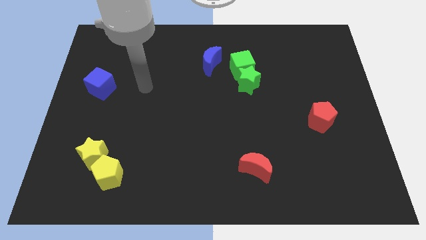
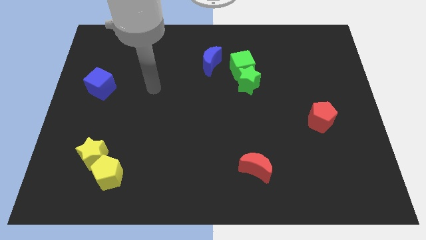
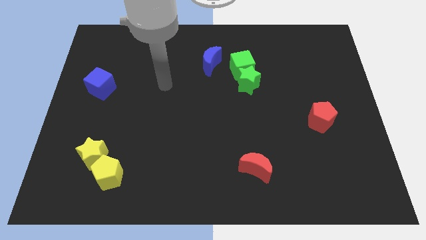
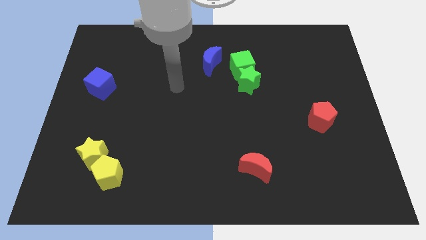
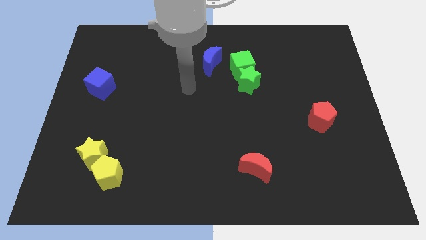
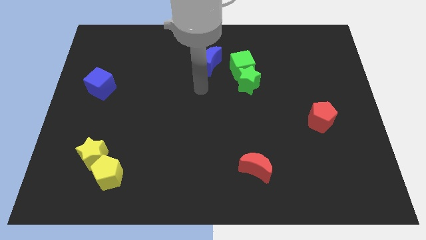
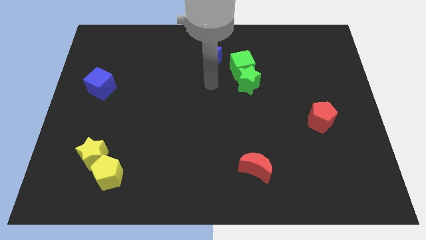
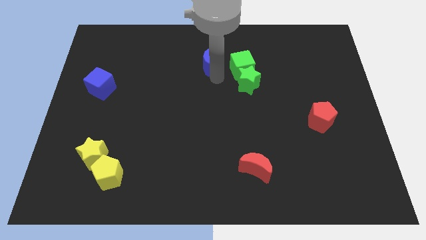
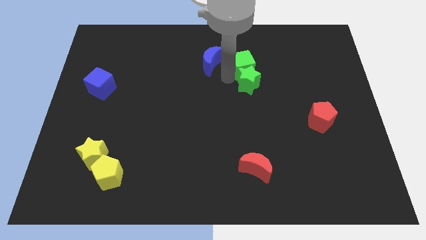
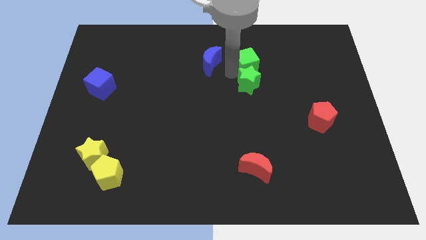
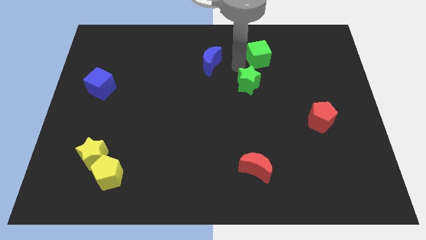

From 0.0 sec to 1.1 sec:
move the green star away from the green cube

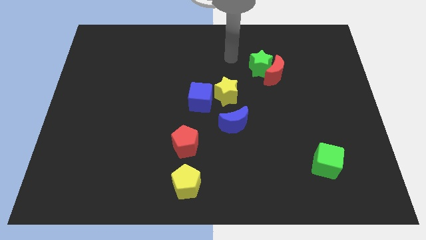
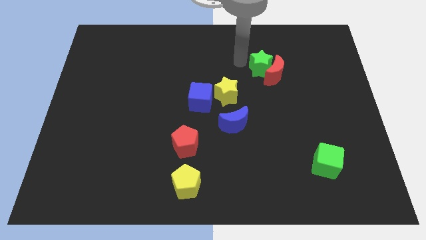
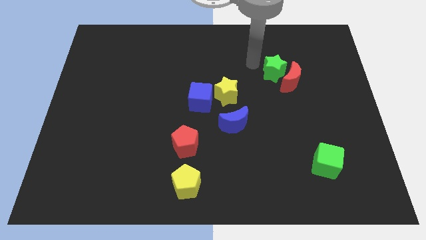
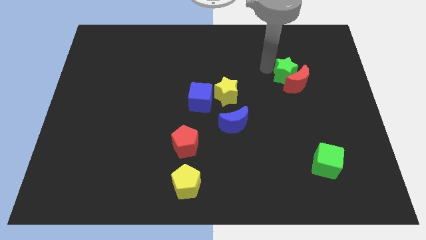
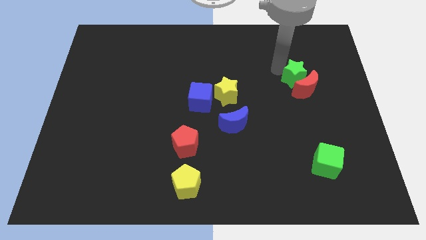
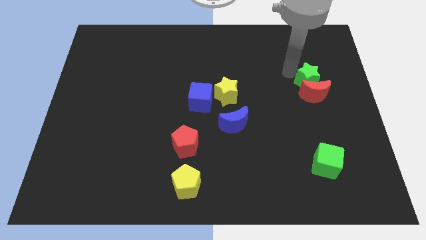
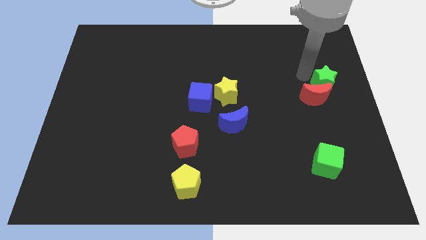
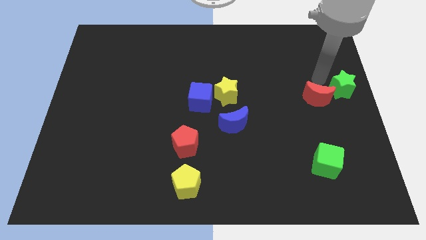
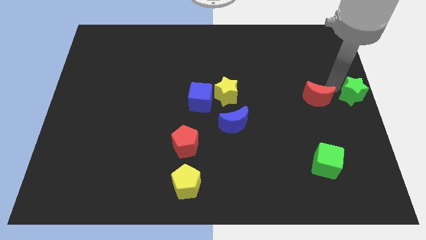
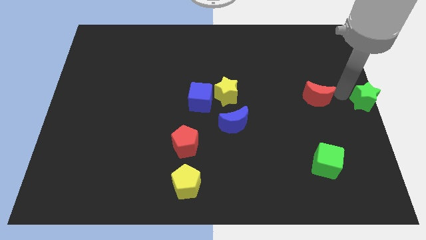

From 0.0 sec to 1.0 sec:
separate the red moon from the green star

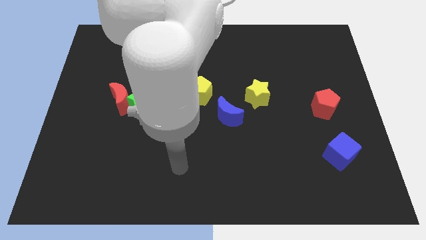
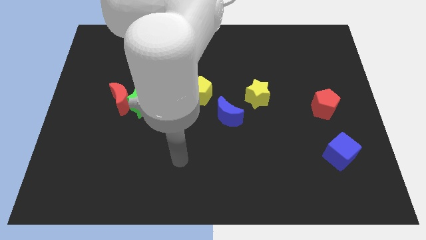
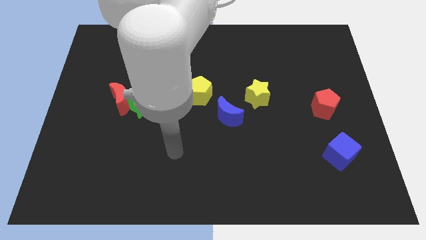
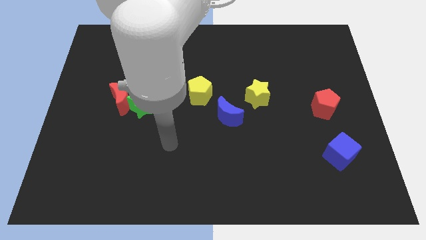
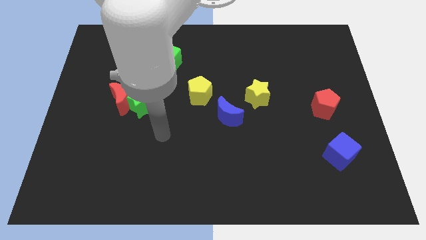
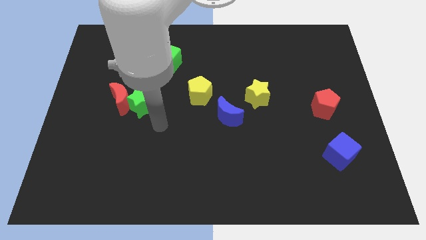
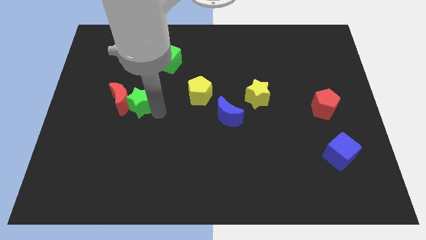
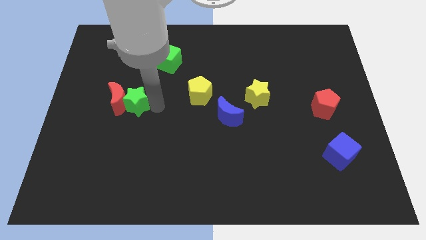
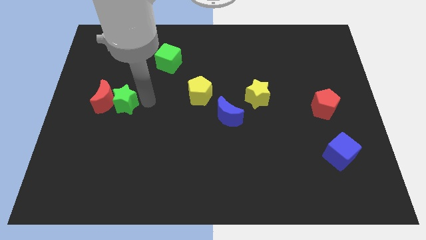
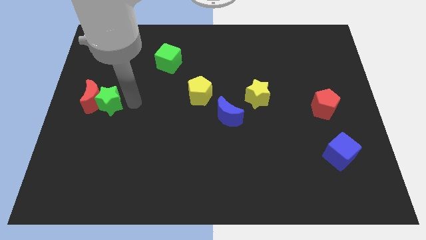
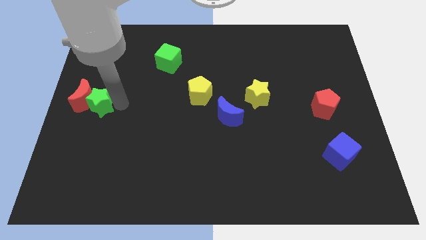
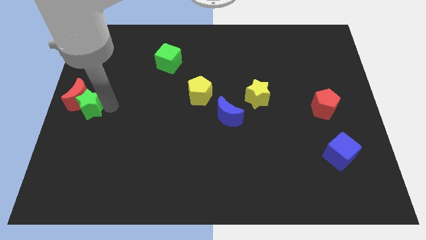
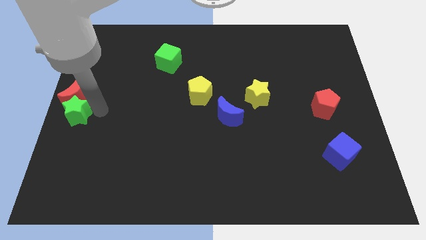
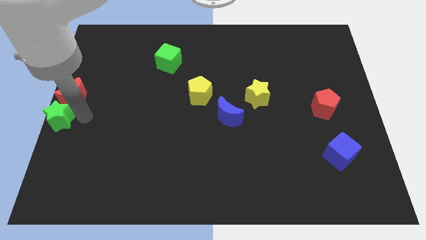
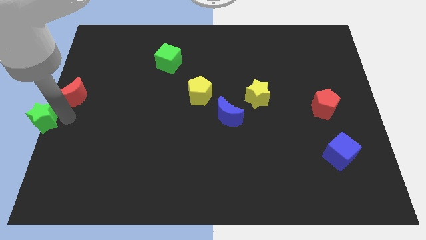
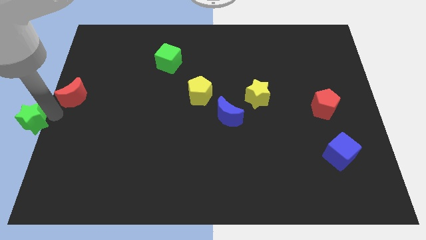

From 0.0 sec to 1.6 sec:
move the red moon away from the green star

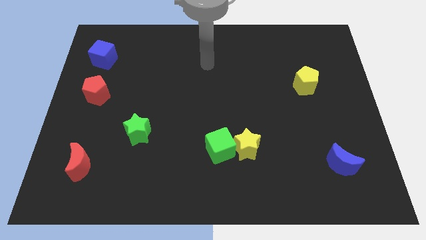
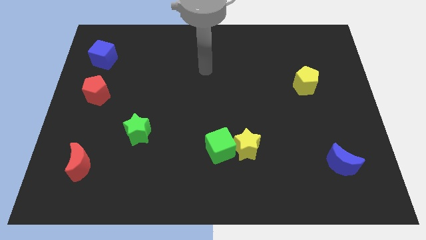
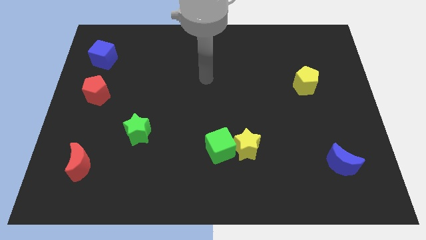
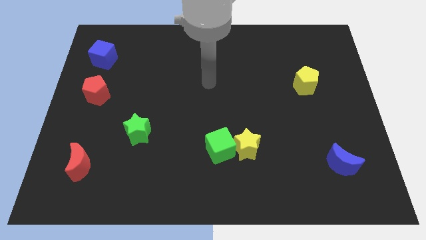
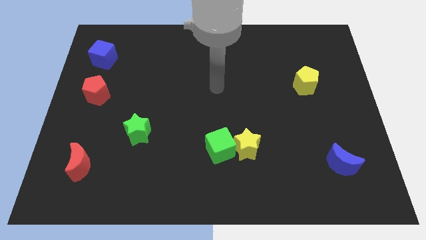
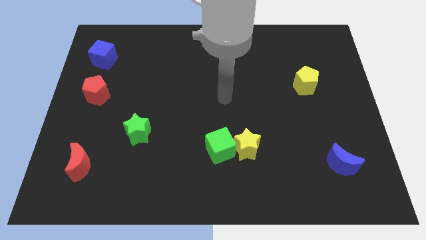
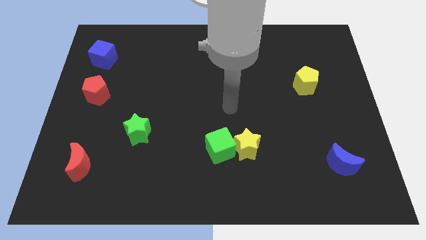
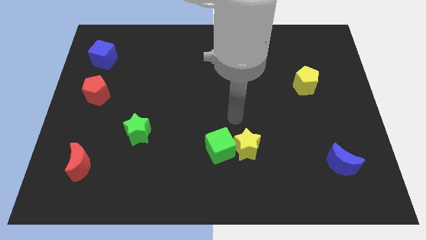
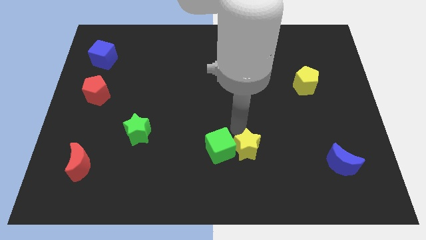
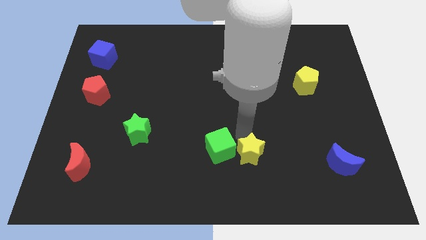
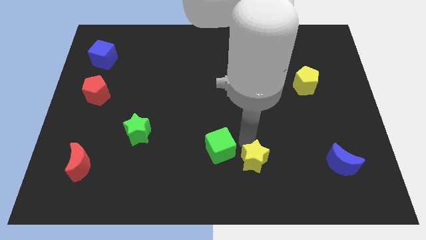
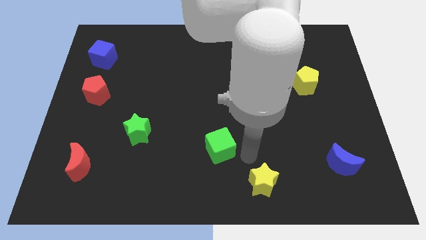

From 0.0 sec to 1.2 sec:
separate the green cube from the yellow star

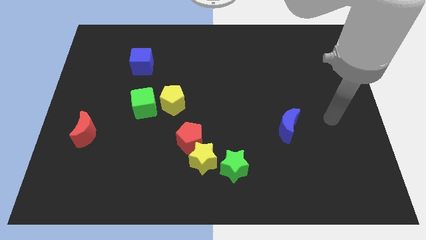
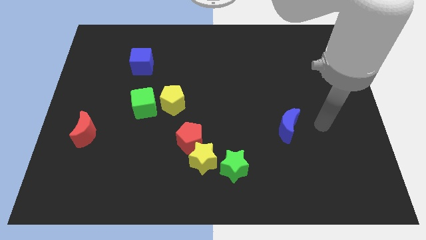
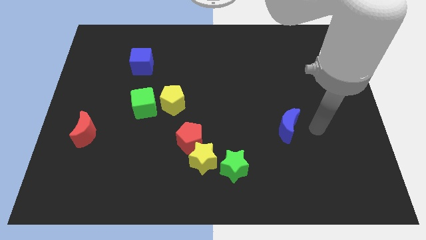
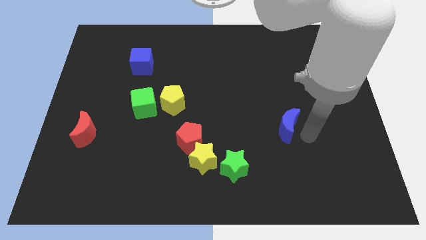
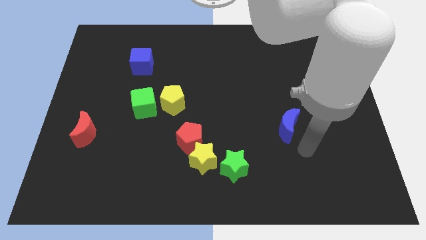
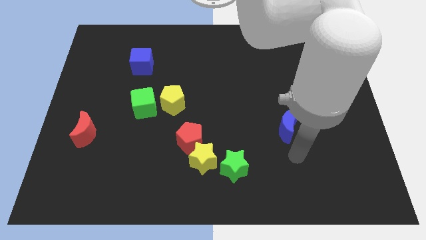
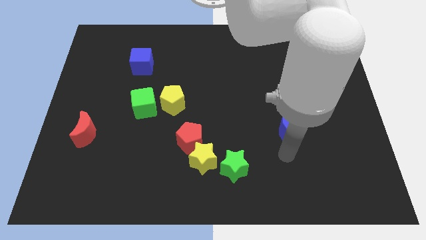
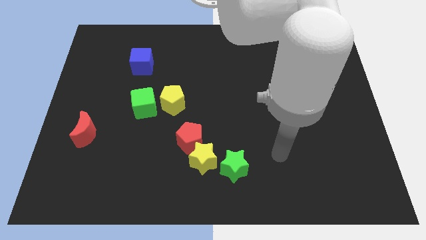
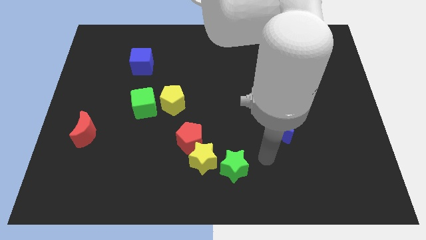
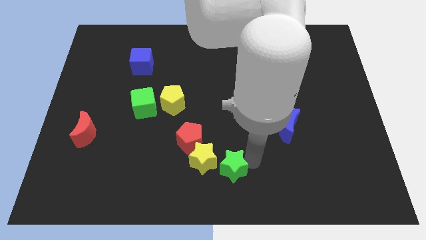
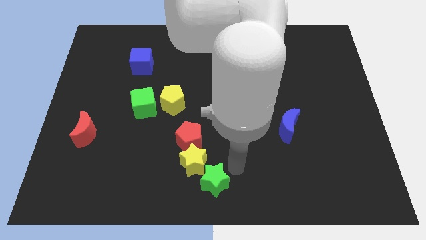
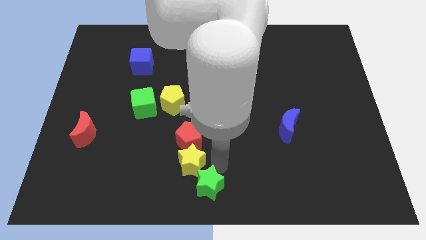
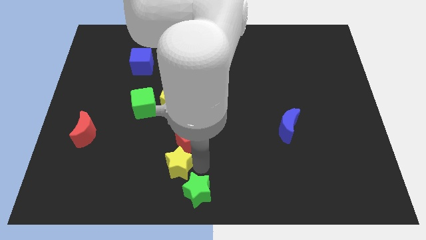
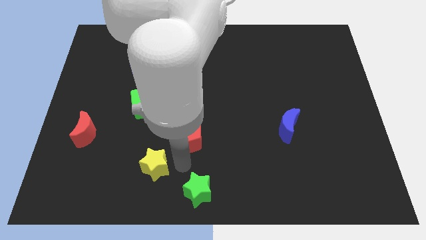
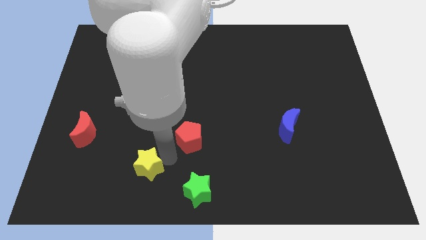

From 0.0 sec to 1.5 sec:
move the red pentagon away from the yellow star

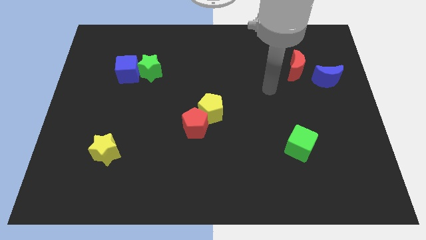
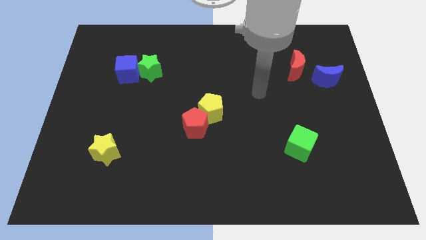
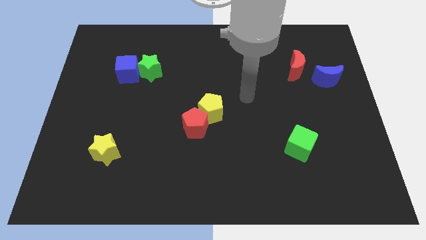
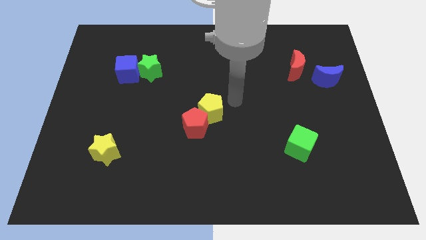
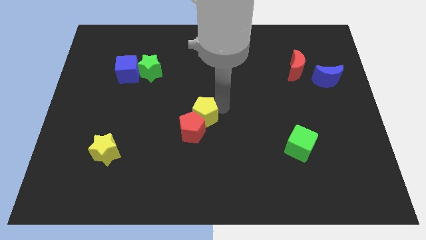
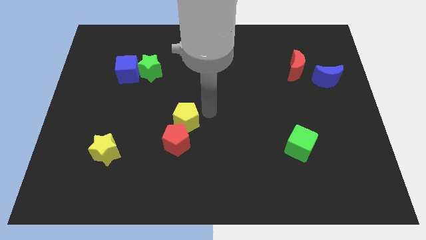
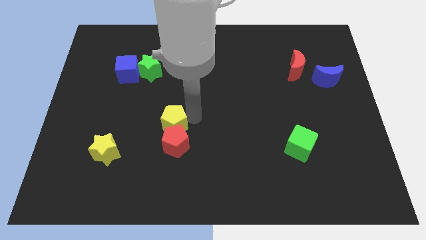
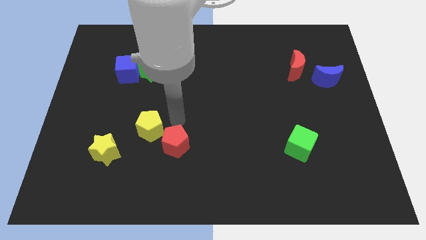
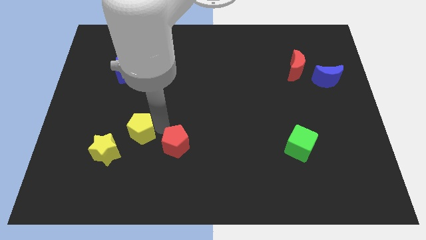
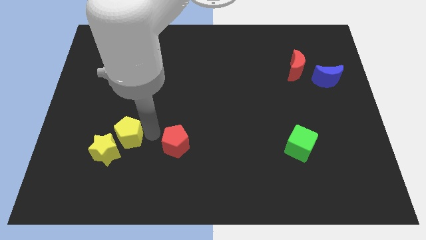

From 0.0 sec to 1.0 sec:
move the red pentagon away from the yellow pentagon

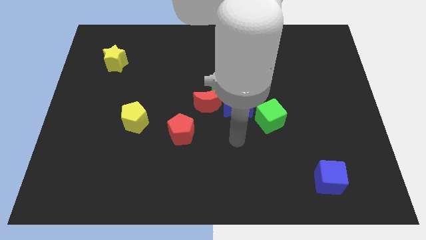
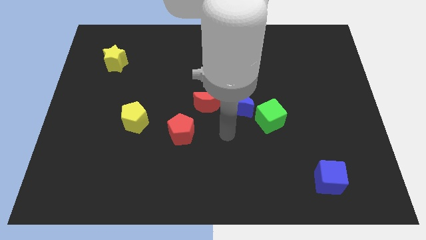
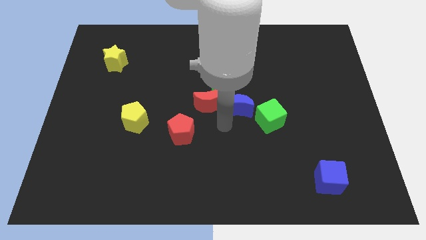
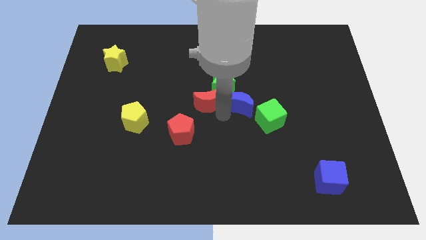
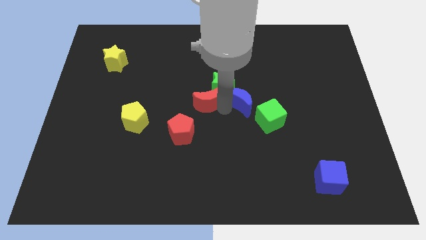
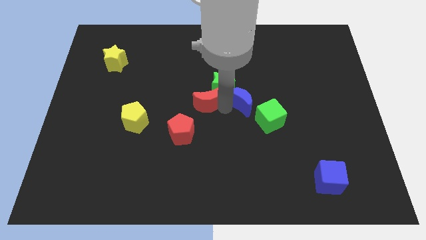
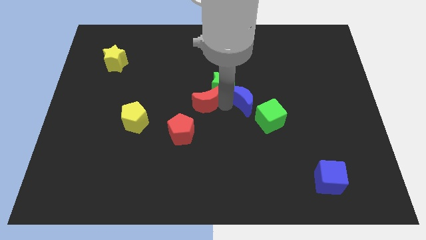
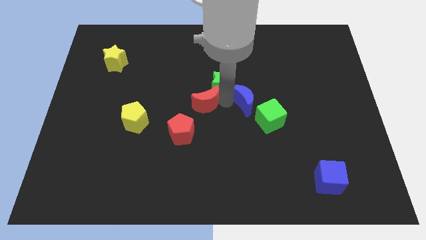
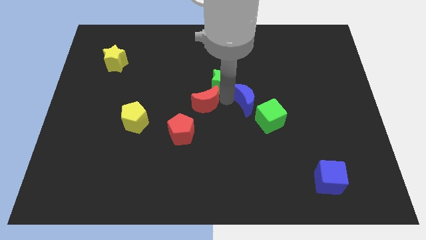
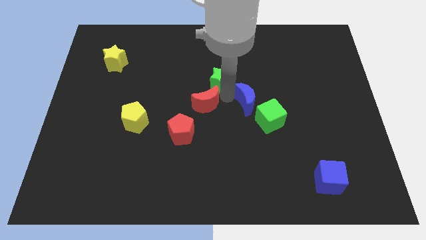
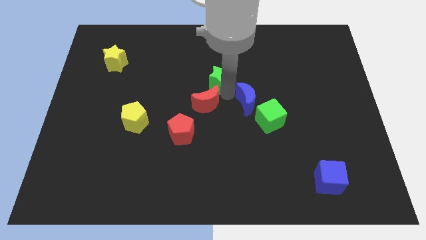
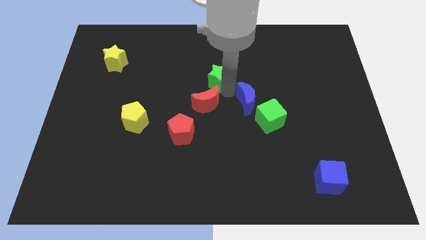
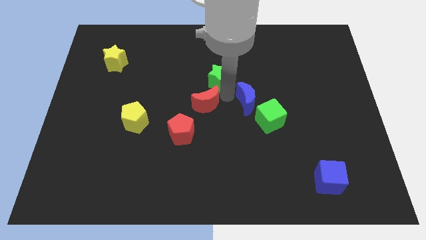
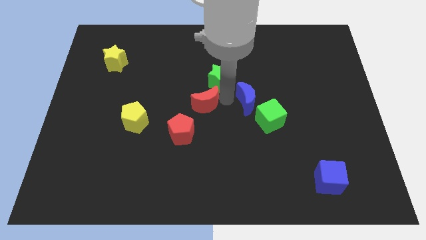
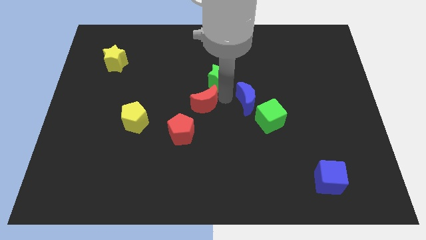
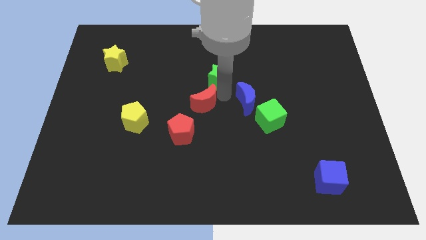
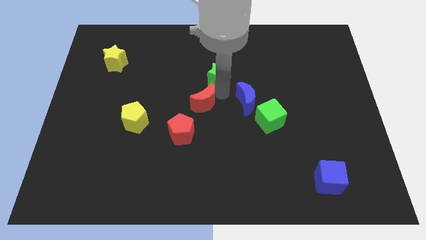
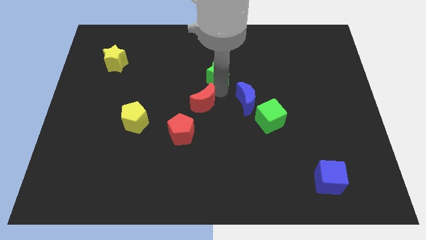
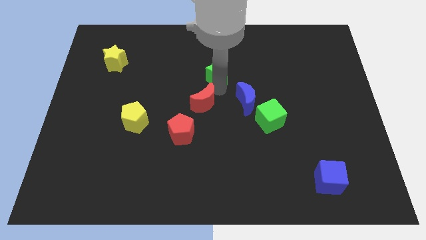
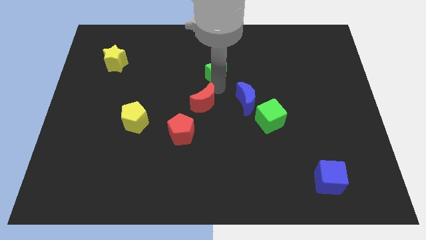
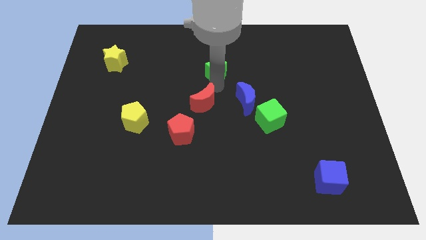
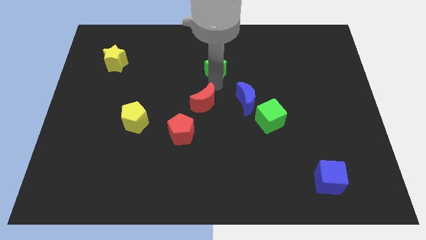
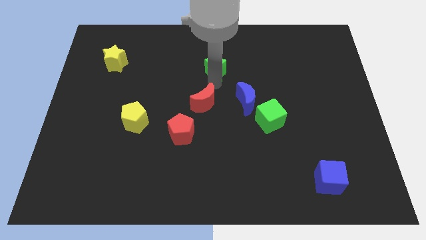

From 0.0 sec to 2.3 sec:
separate the green star from the red moon and blue moon
